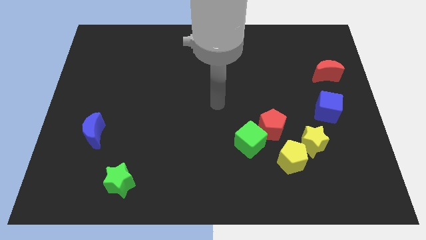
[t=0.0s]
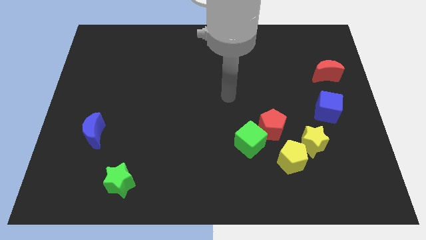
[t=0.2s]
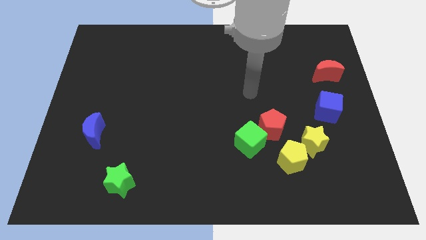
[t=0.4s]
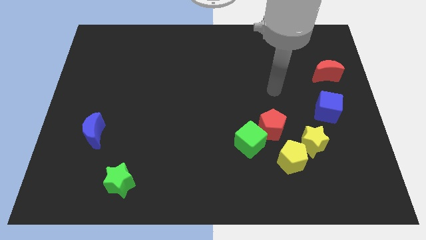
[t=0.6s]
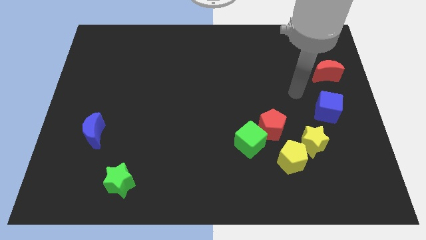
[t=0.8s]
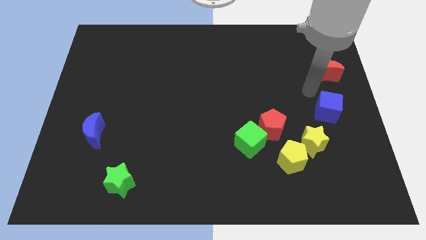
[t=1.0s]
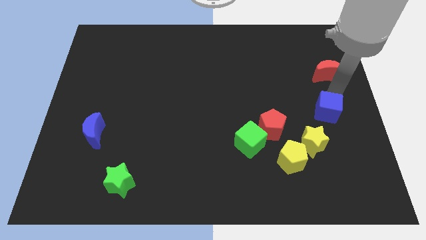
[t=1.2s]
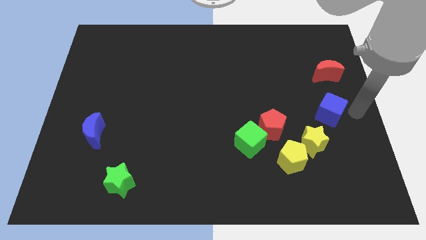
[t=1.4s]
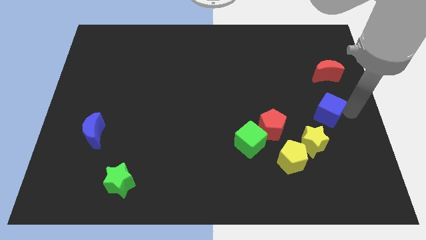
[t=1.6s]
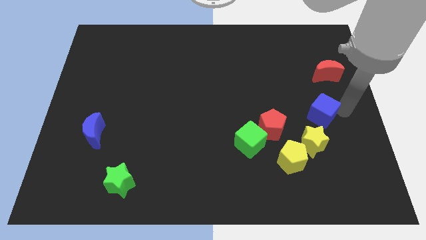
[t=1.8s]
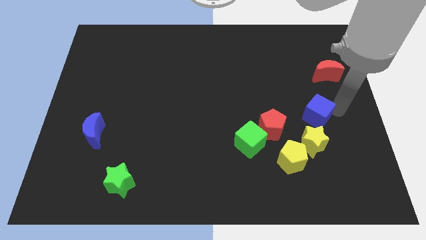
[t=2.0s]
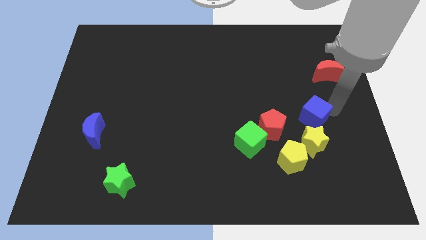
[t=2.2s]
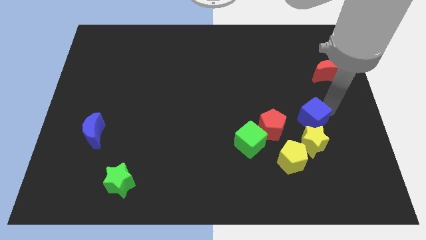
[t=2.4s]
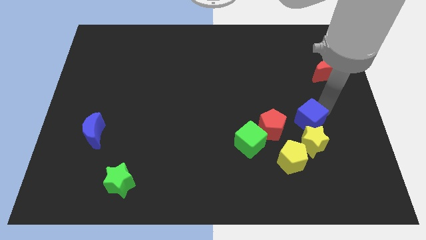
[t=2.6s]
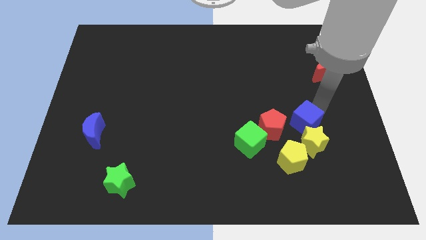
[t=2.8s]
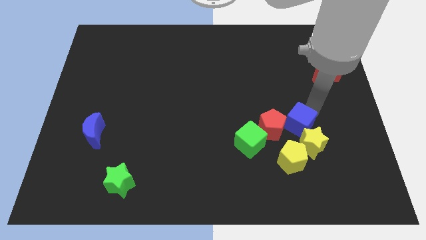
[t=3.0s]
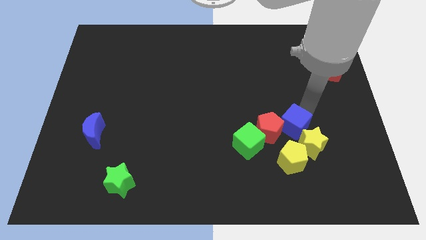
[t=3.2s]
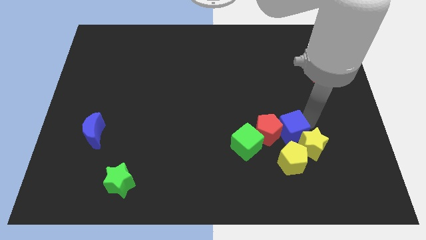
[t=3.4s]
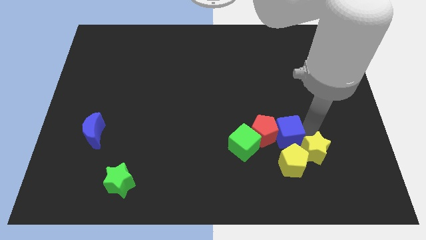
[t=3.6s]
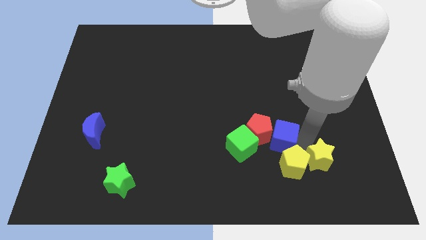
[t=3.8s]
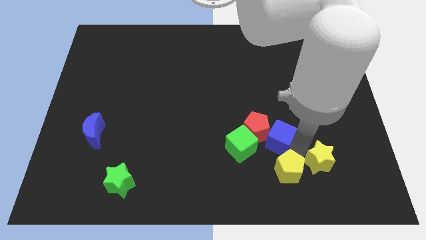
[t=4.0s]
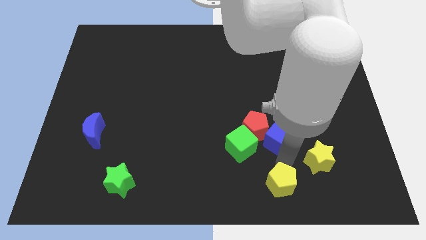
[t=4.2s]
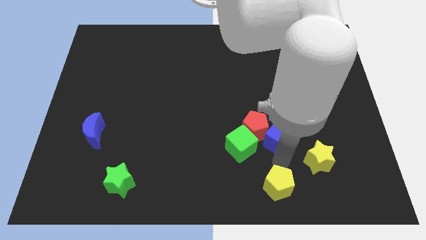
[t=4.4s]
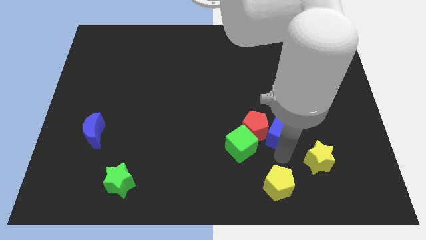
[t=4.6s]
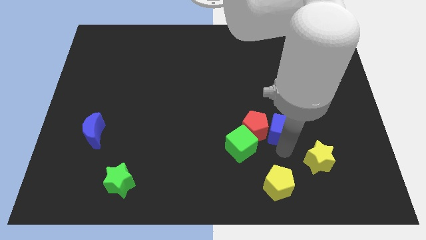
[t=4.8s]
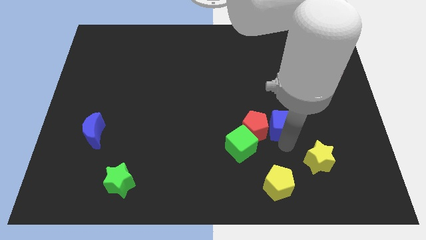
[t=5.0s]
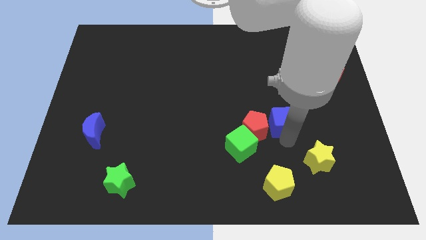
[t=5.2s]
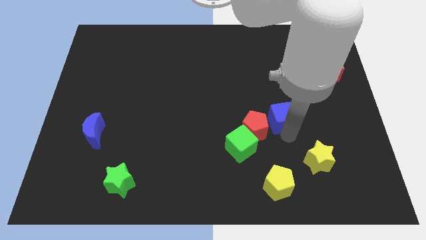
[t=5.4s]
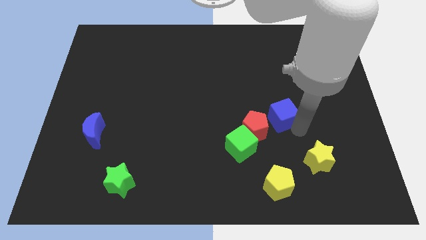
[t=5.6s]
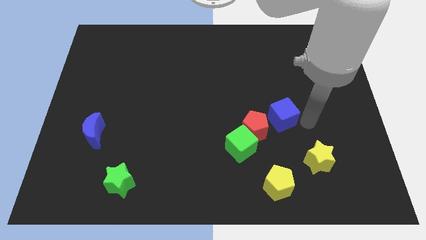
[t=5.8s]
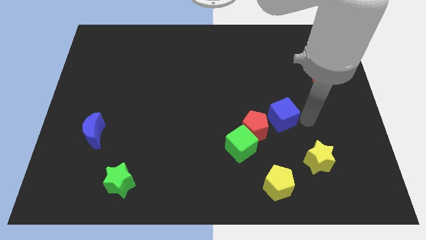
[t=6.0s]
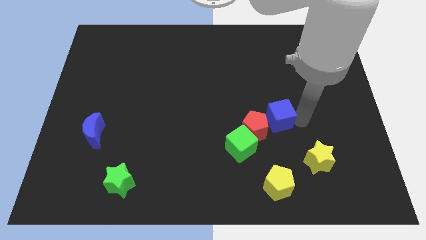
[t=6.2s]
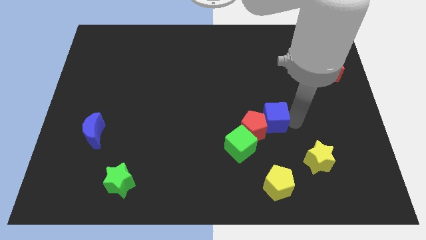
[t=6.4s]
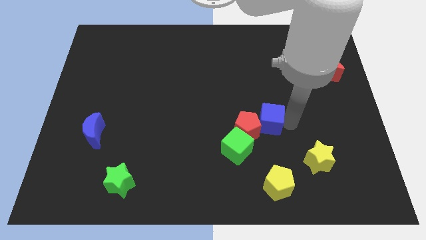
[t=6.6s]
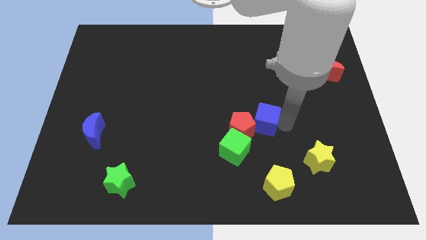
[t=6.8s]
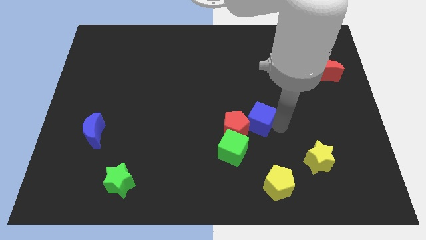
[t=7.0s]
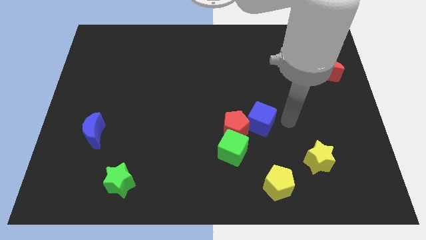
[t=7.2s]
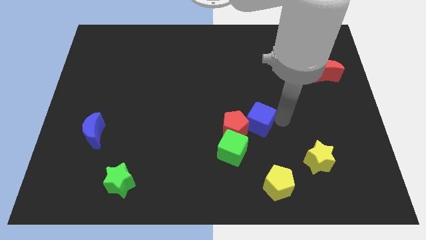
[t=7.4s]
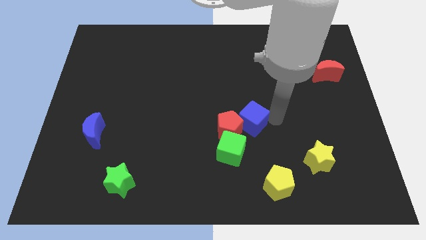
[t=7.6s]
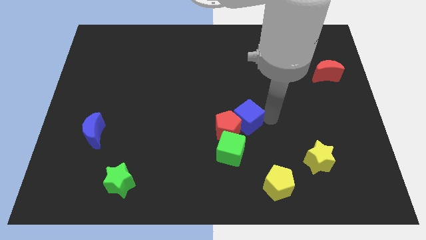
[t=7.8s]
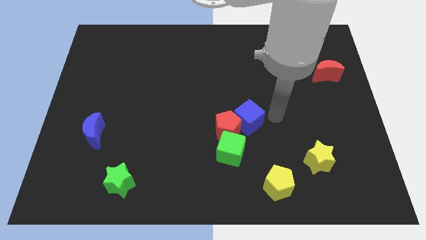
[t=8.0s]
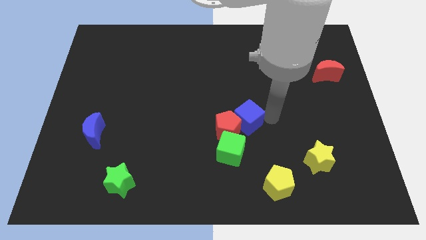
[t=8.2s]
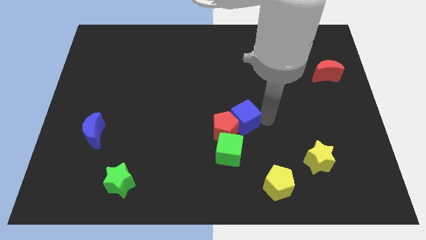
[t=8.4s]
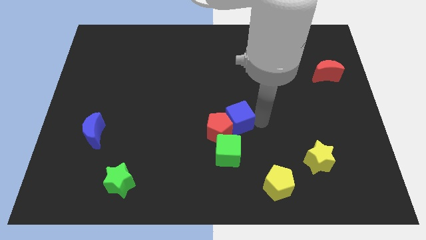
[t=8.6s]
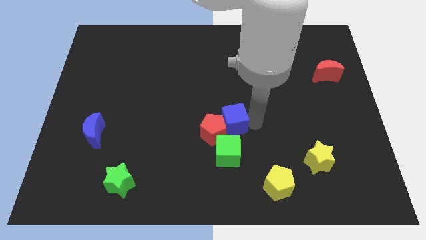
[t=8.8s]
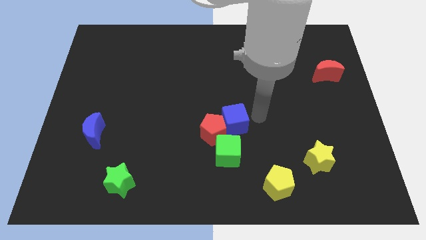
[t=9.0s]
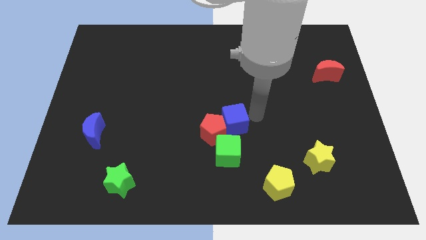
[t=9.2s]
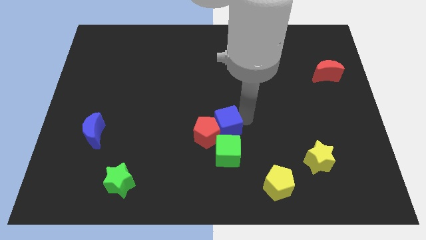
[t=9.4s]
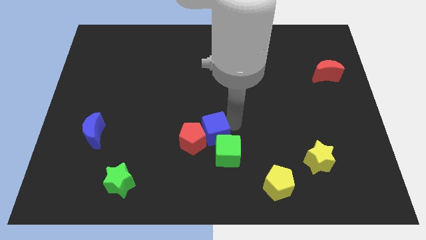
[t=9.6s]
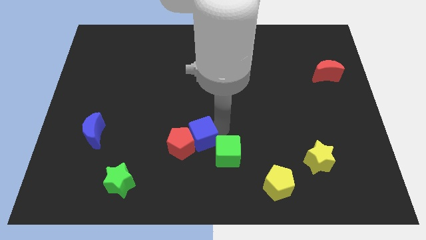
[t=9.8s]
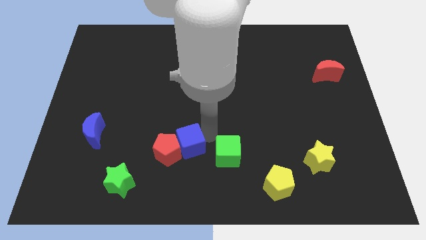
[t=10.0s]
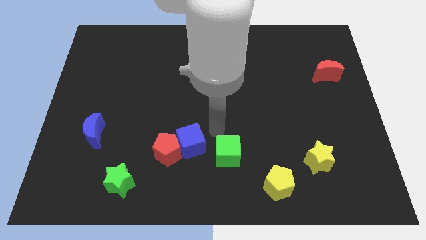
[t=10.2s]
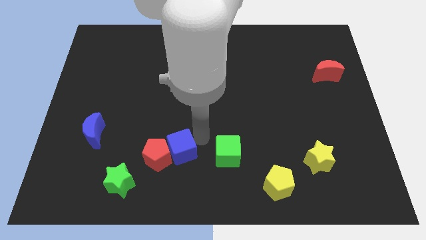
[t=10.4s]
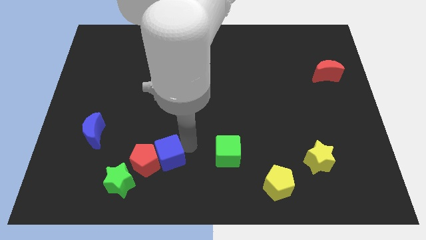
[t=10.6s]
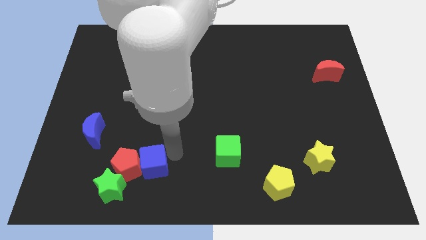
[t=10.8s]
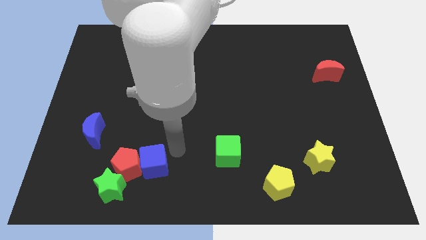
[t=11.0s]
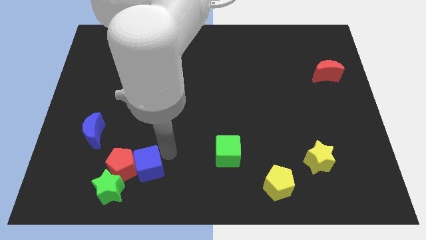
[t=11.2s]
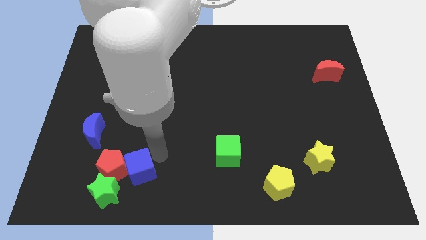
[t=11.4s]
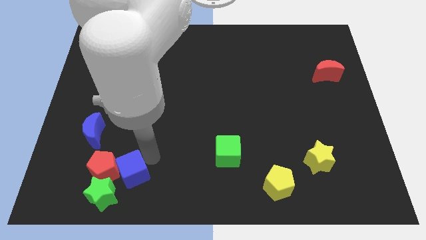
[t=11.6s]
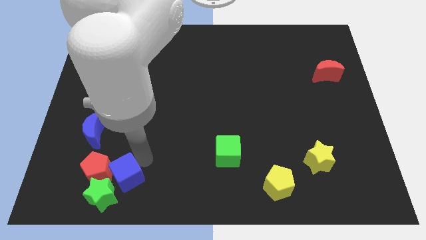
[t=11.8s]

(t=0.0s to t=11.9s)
push the blue cube to the green star

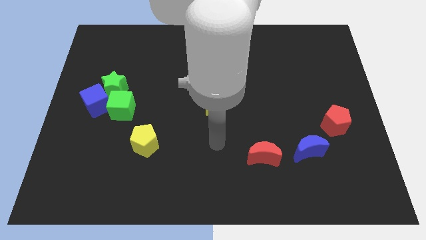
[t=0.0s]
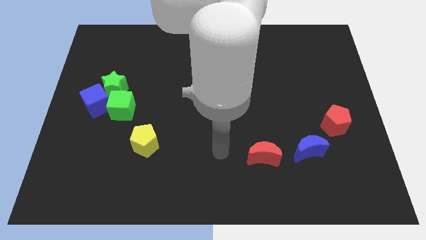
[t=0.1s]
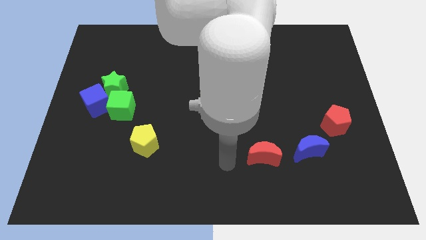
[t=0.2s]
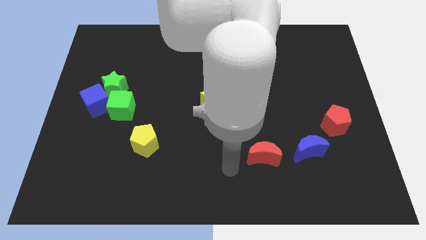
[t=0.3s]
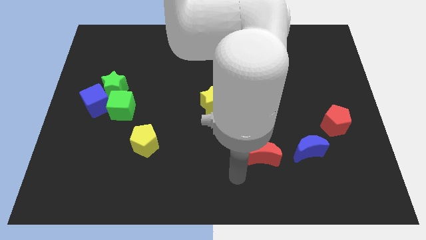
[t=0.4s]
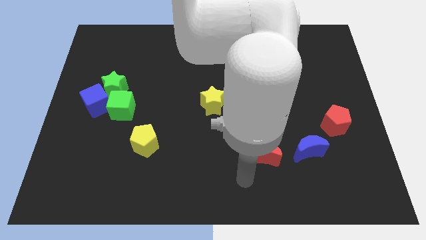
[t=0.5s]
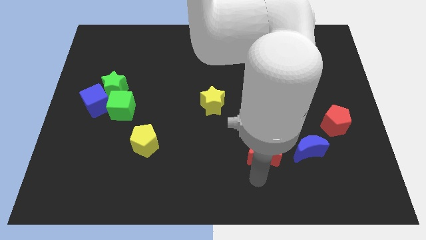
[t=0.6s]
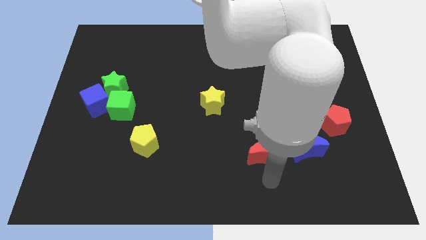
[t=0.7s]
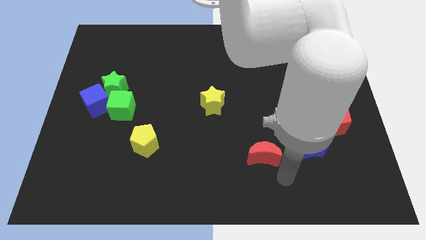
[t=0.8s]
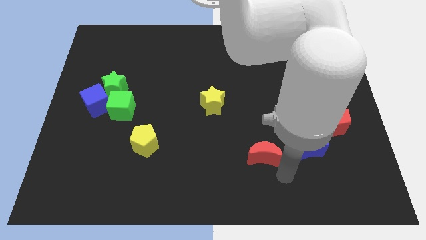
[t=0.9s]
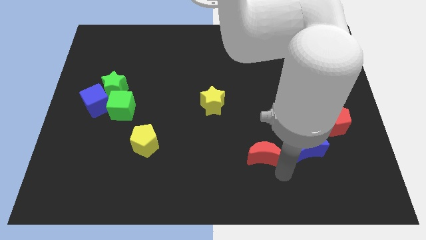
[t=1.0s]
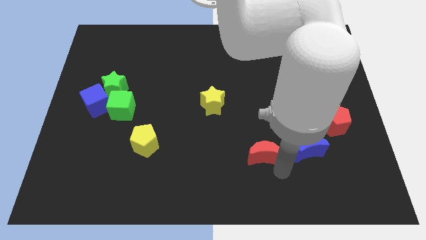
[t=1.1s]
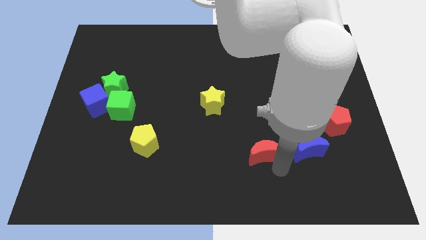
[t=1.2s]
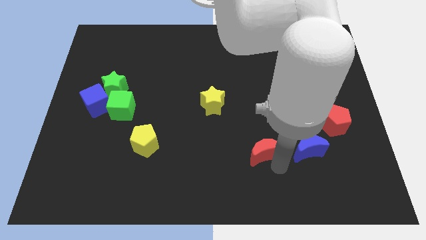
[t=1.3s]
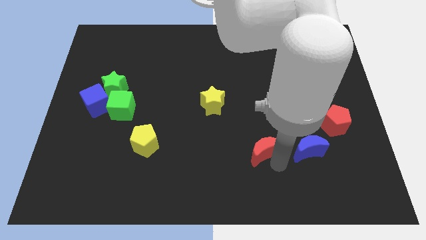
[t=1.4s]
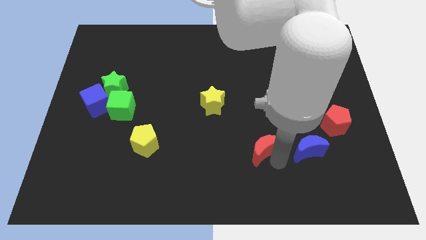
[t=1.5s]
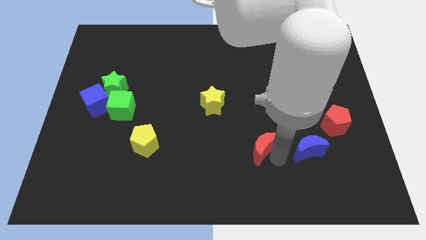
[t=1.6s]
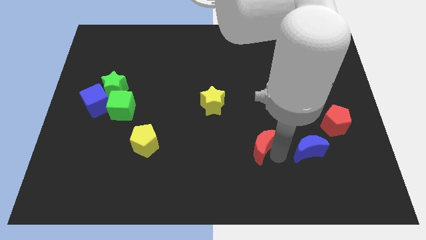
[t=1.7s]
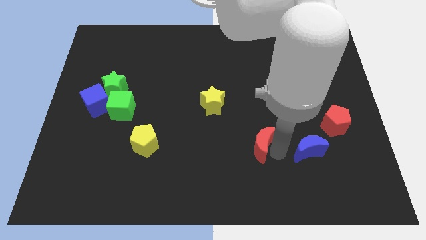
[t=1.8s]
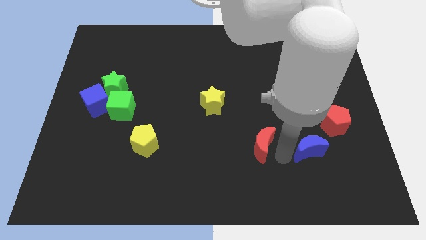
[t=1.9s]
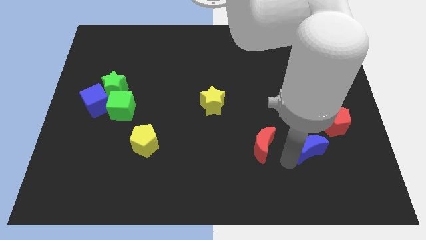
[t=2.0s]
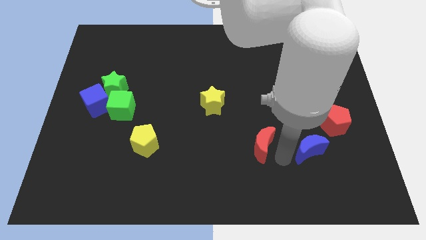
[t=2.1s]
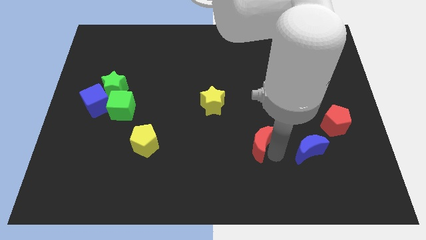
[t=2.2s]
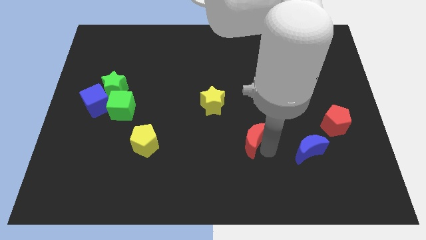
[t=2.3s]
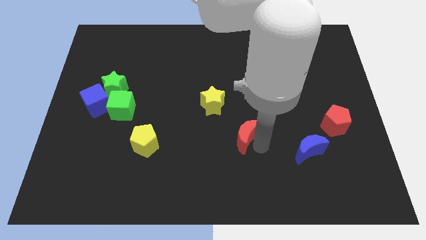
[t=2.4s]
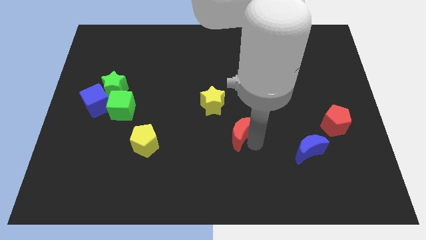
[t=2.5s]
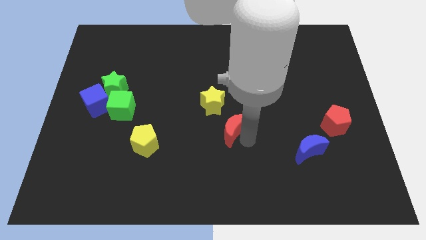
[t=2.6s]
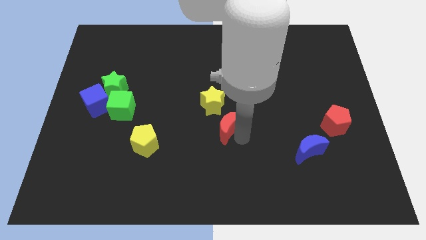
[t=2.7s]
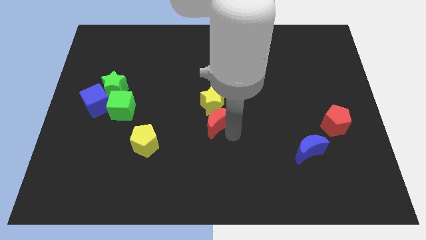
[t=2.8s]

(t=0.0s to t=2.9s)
put the red moon towards the yellow star
